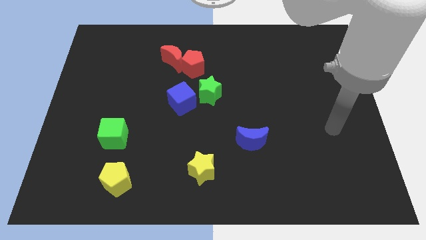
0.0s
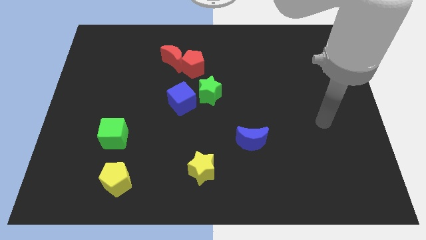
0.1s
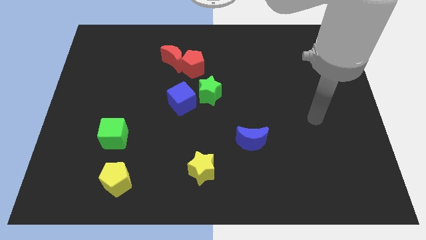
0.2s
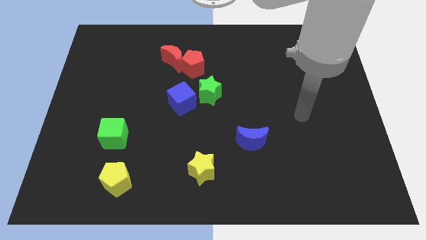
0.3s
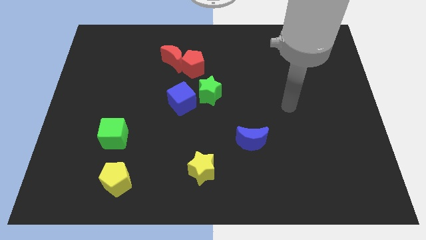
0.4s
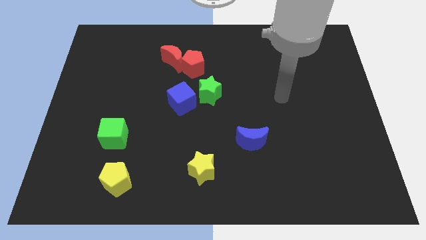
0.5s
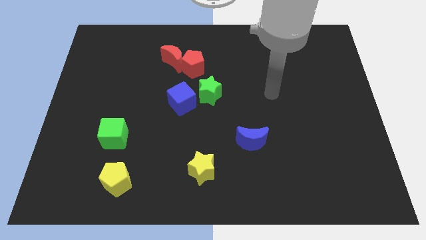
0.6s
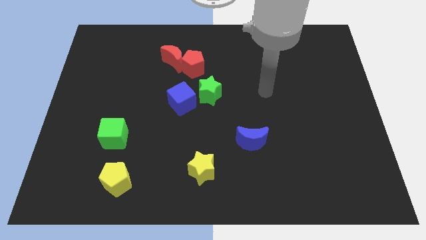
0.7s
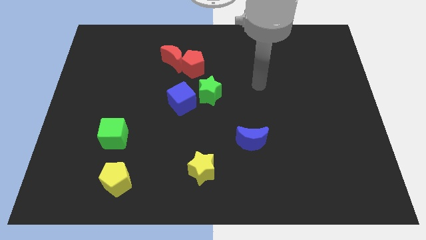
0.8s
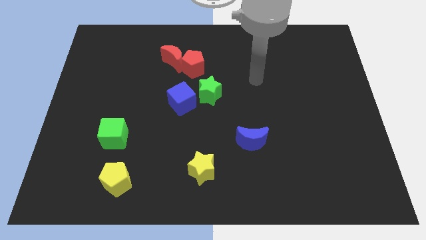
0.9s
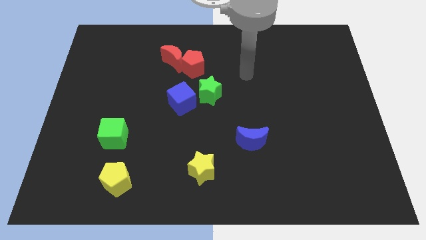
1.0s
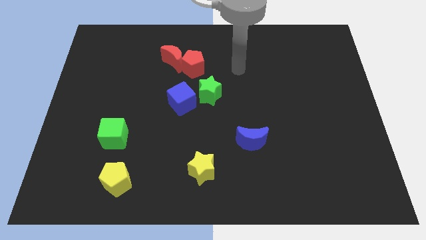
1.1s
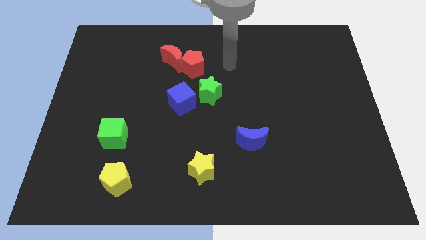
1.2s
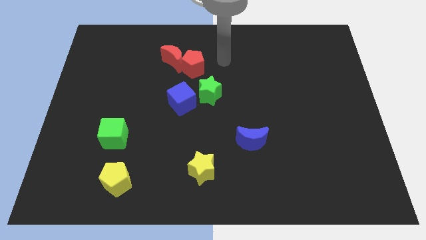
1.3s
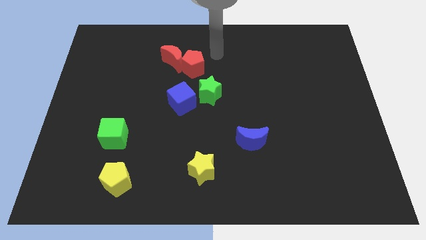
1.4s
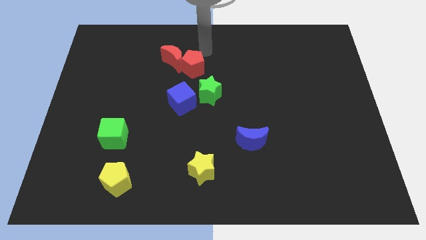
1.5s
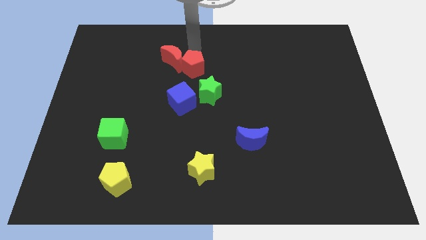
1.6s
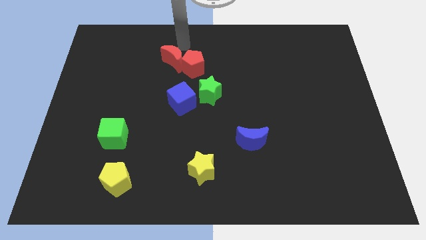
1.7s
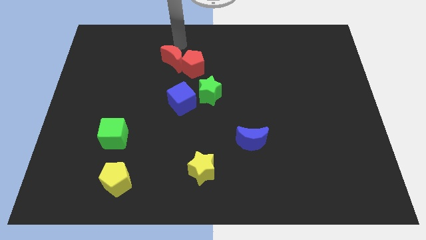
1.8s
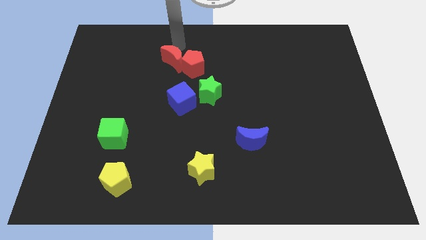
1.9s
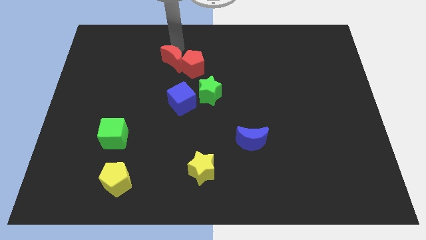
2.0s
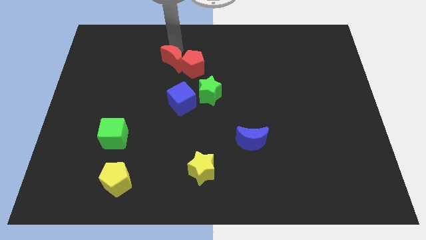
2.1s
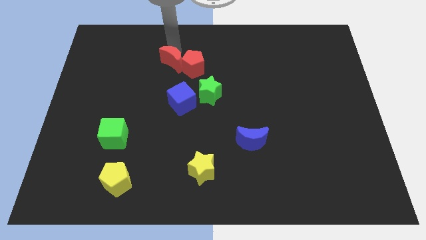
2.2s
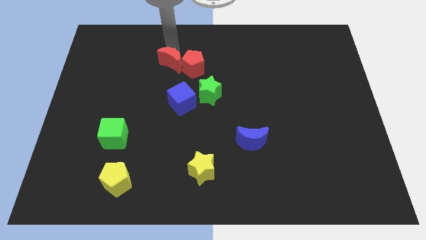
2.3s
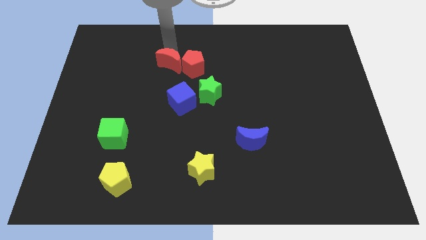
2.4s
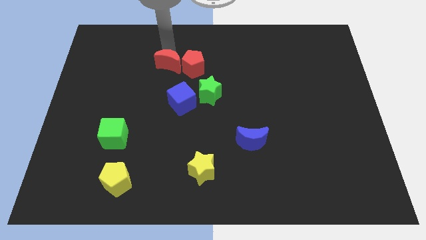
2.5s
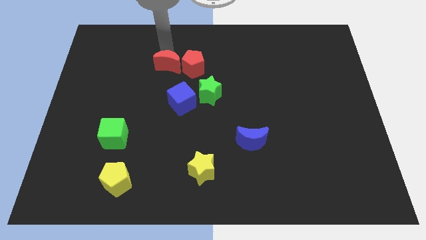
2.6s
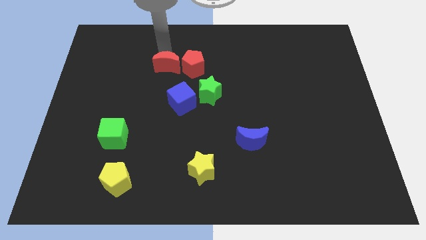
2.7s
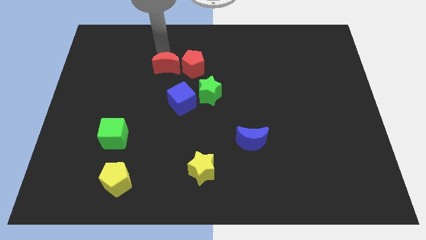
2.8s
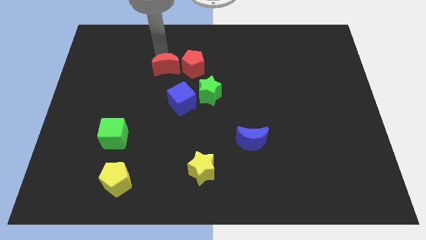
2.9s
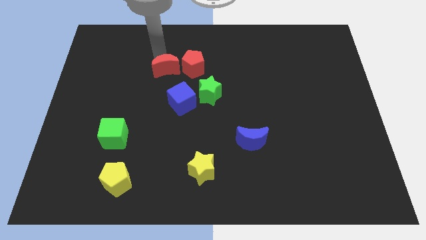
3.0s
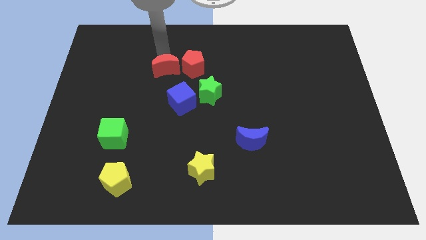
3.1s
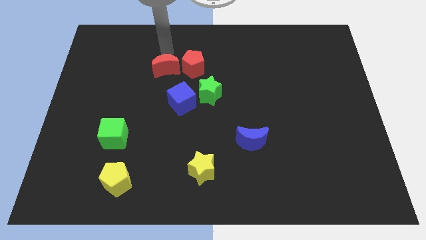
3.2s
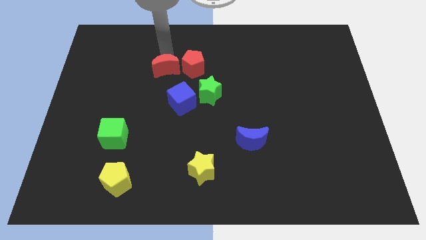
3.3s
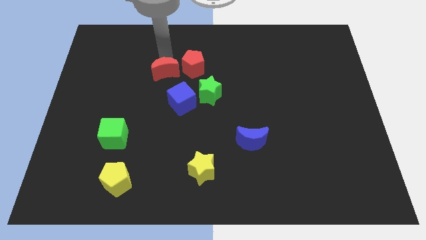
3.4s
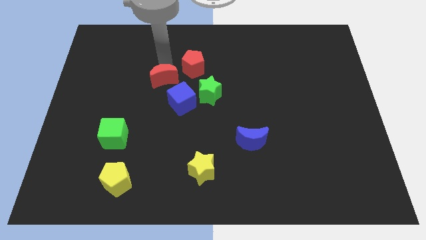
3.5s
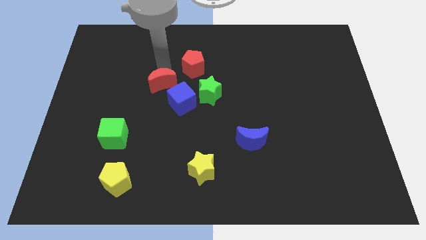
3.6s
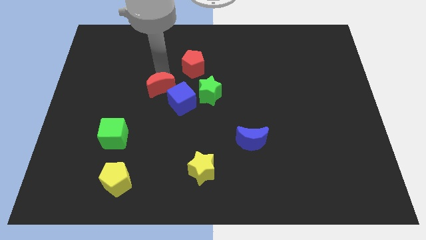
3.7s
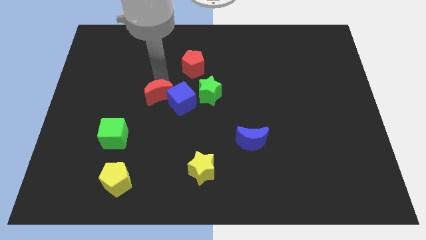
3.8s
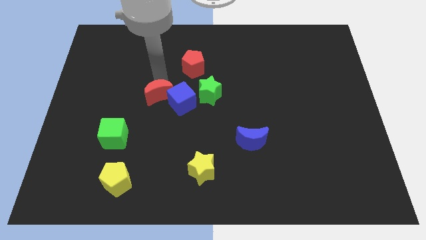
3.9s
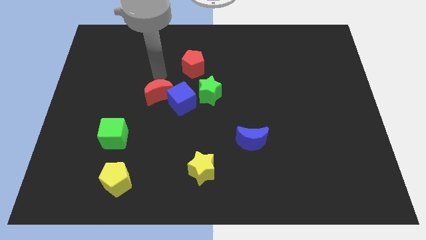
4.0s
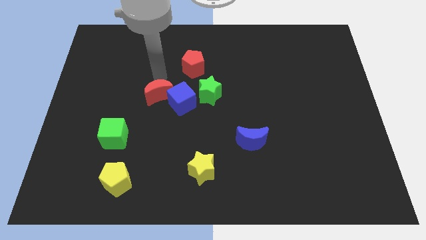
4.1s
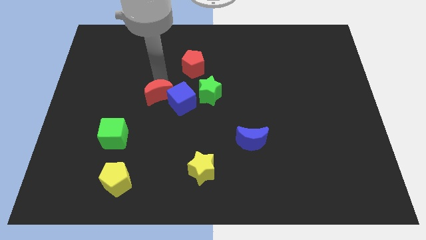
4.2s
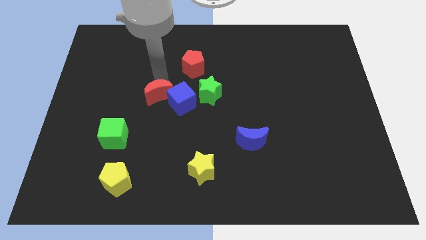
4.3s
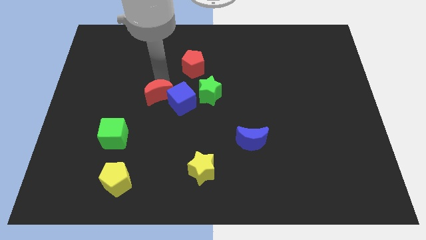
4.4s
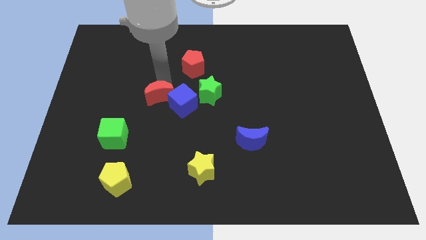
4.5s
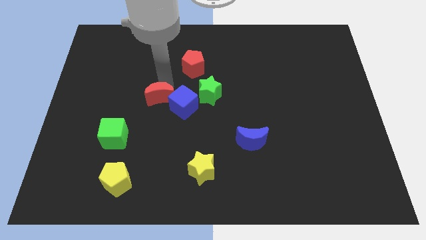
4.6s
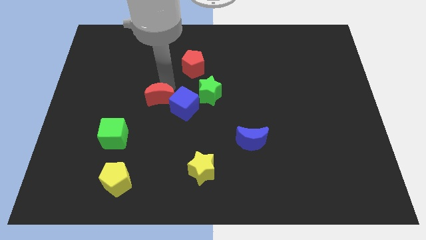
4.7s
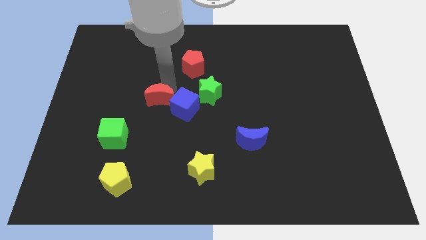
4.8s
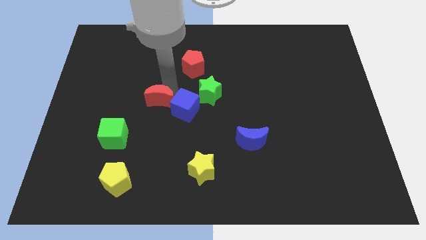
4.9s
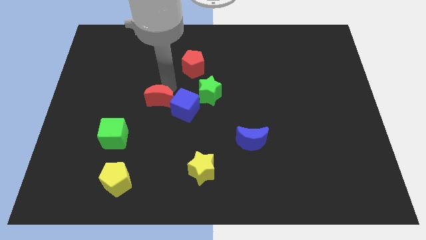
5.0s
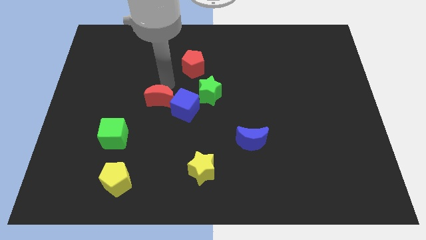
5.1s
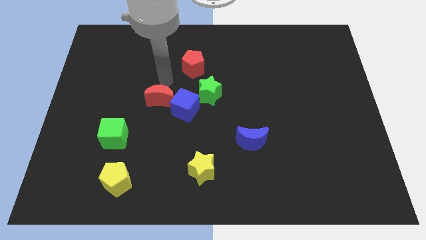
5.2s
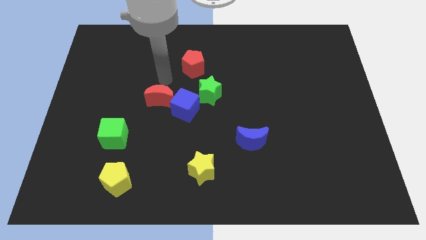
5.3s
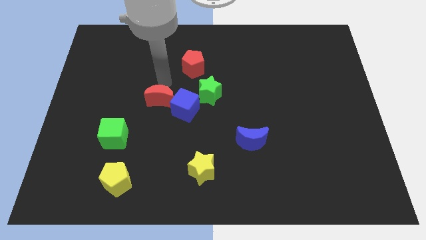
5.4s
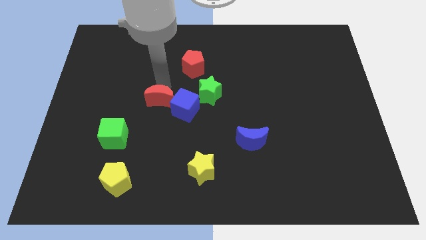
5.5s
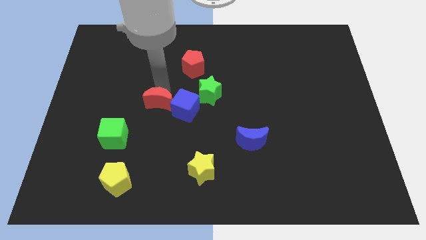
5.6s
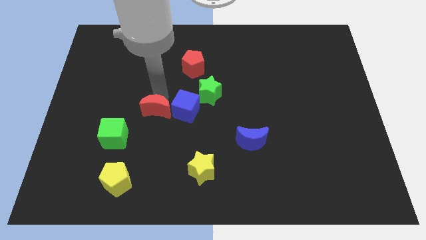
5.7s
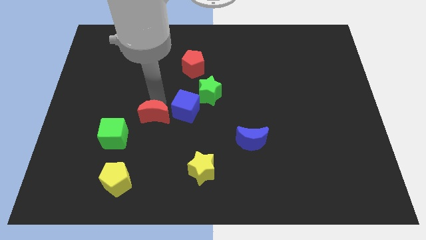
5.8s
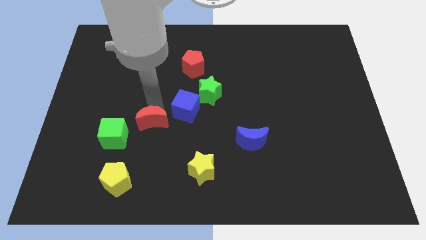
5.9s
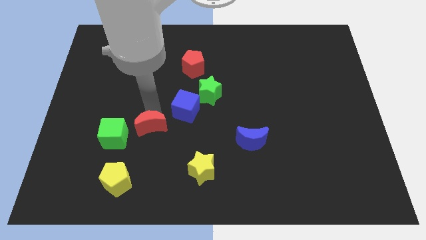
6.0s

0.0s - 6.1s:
slide the red moon down

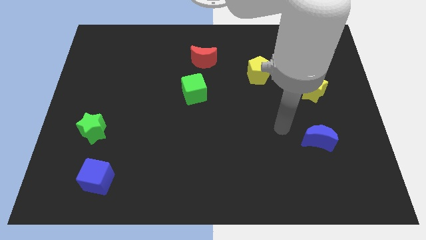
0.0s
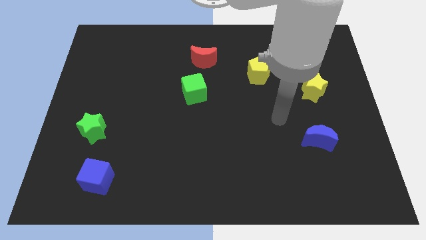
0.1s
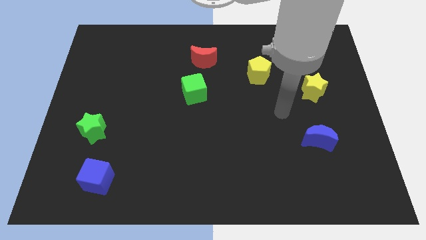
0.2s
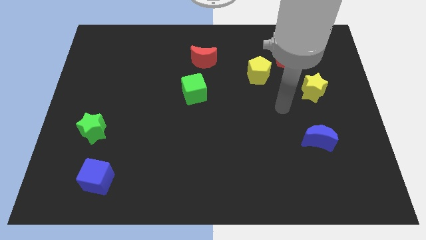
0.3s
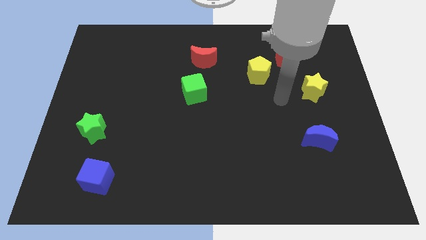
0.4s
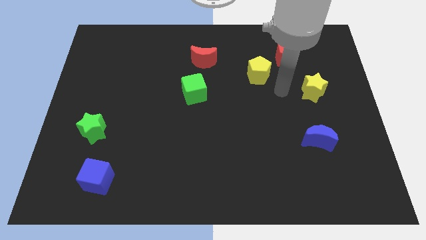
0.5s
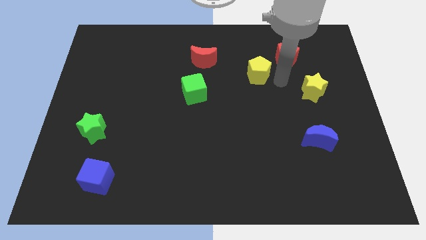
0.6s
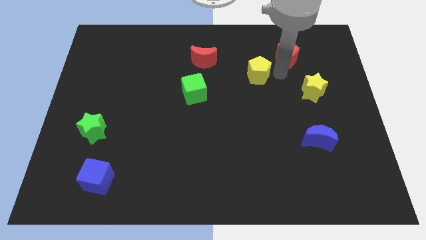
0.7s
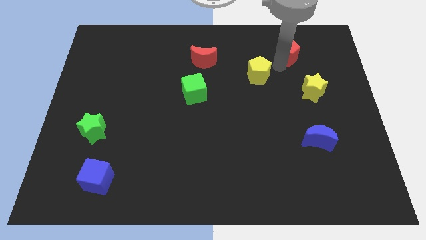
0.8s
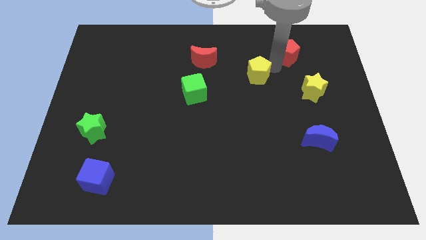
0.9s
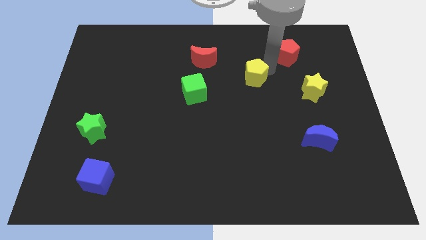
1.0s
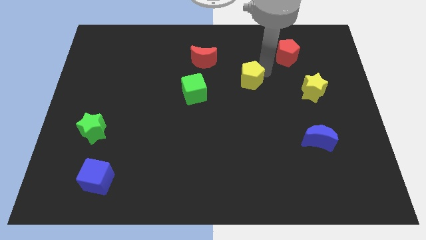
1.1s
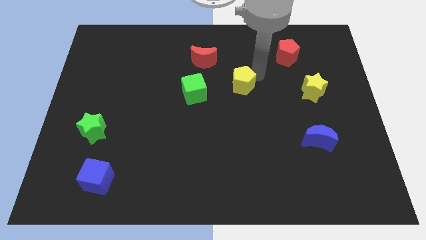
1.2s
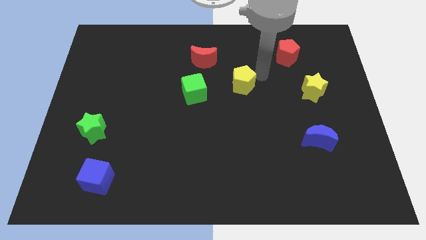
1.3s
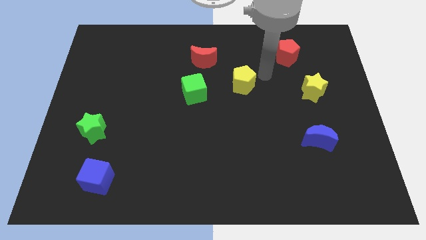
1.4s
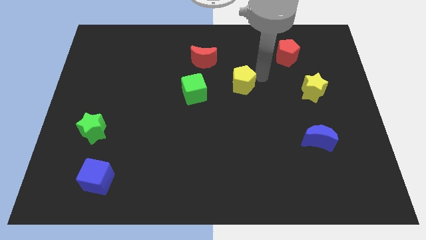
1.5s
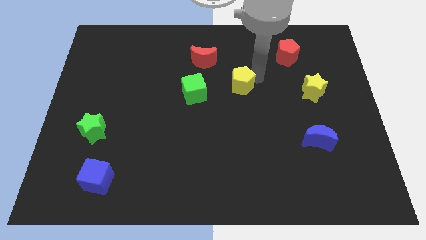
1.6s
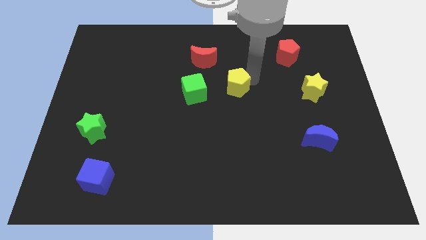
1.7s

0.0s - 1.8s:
move the yellow pentagon slightly downwards and then left

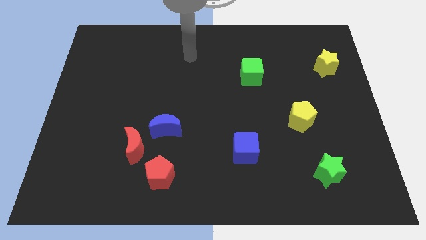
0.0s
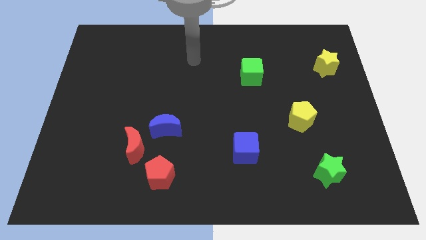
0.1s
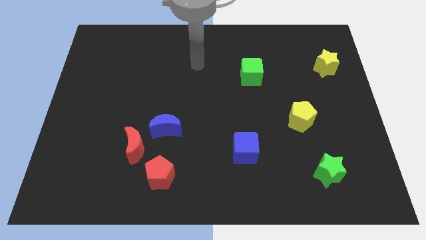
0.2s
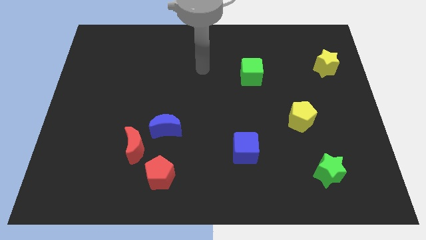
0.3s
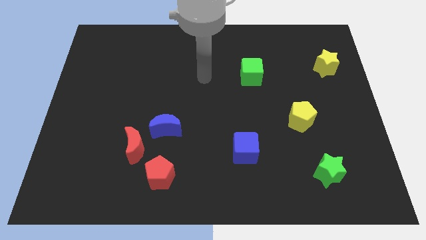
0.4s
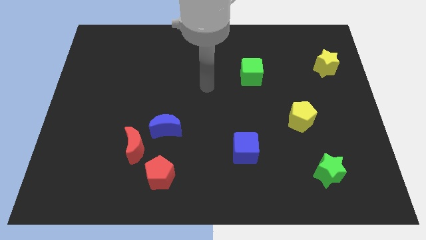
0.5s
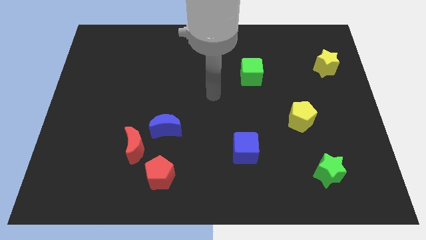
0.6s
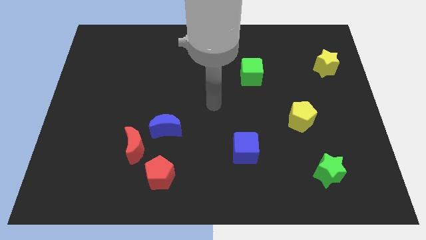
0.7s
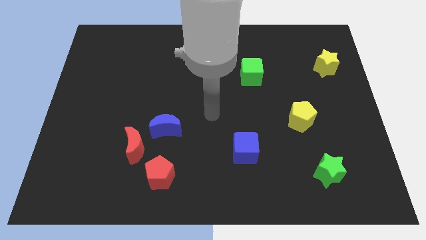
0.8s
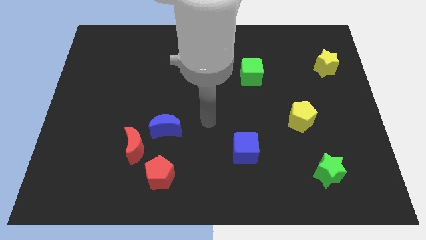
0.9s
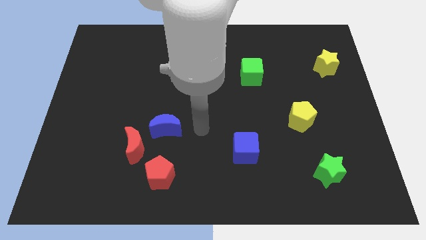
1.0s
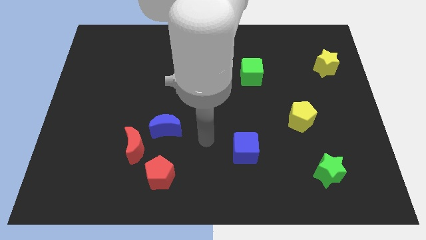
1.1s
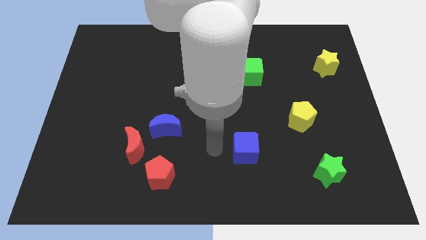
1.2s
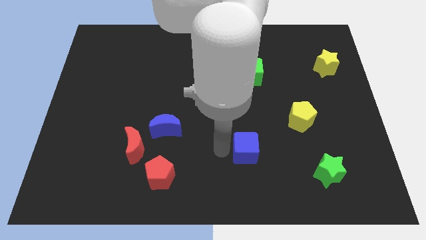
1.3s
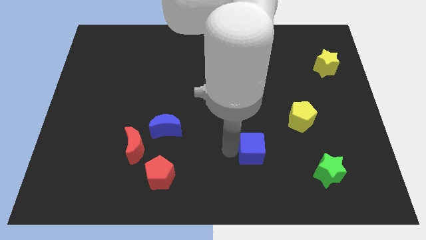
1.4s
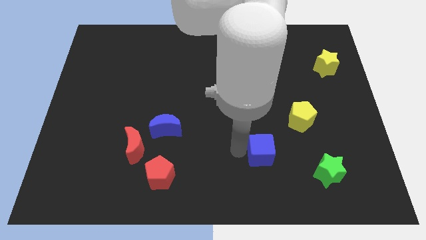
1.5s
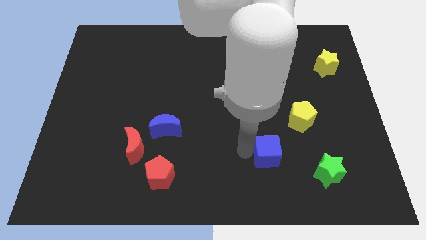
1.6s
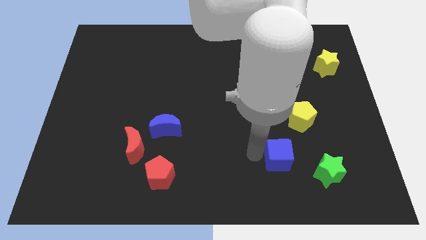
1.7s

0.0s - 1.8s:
slightly slide the blue cube to the right
